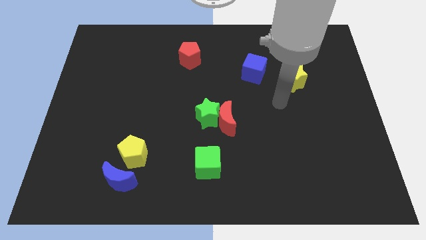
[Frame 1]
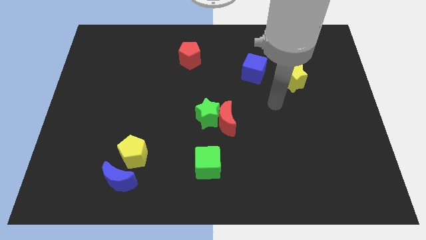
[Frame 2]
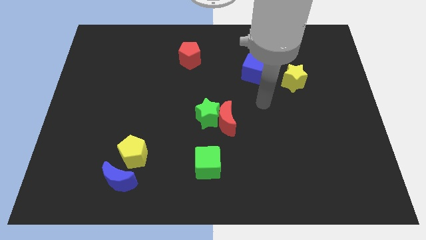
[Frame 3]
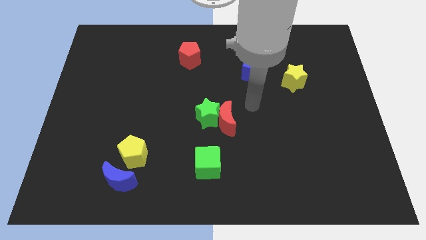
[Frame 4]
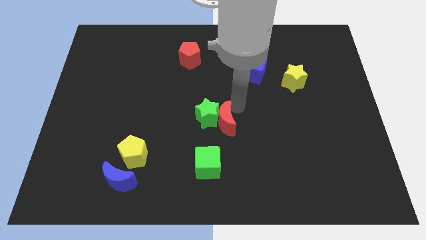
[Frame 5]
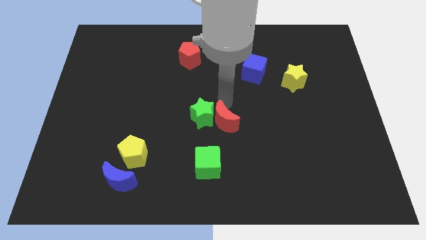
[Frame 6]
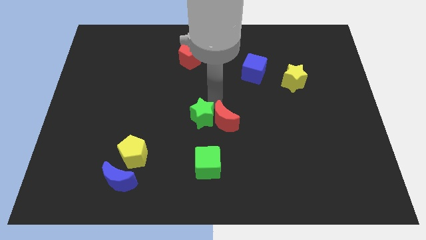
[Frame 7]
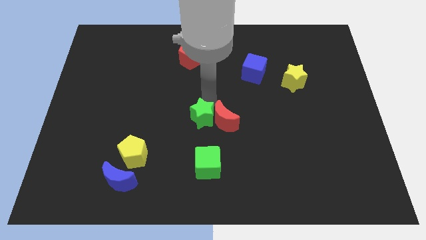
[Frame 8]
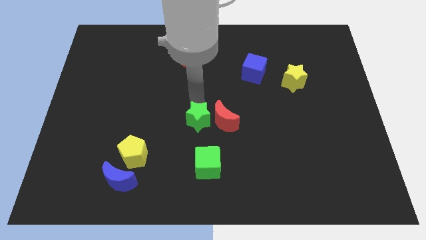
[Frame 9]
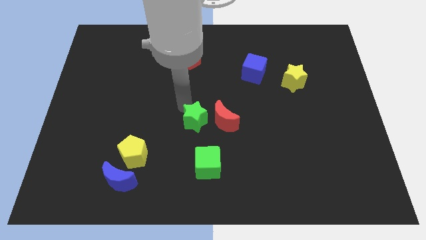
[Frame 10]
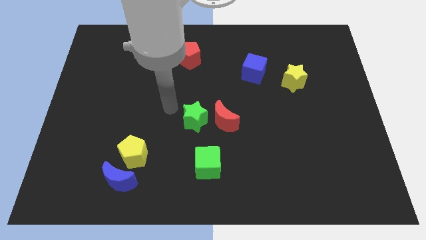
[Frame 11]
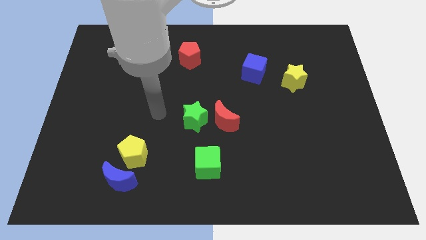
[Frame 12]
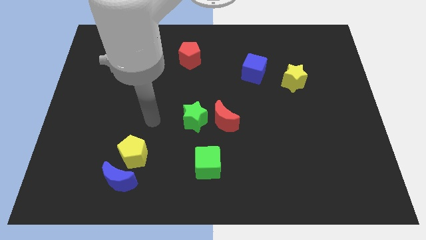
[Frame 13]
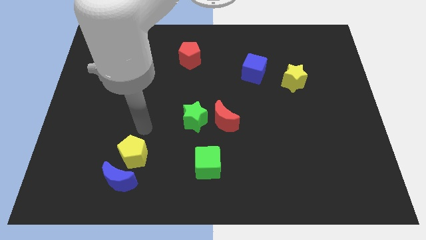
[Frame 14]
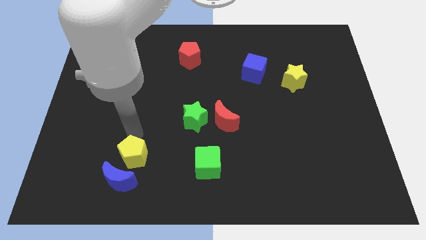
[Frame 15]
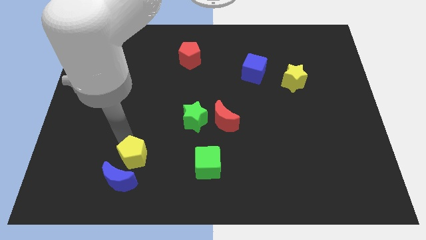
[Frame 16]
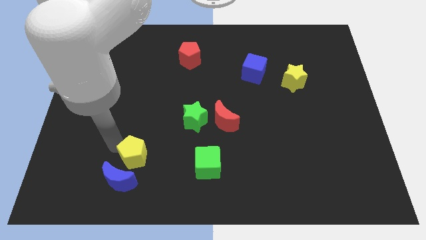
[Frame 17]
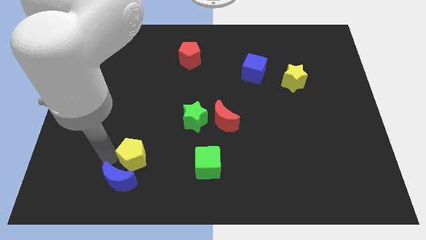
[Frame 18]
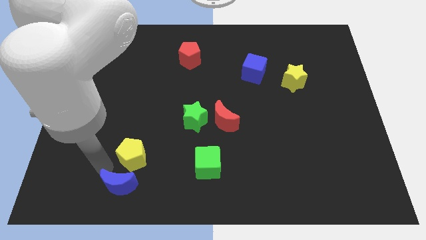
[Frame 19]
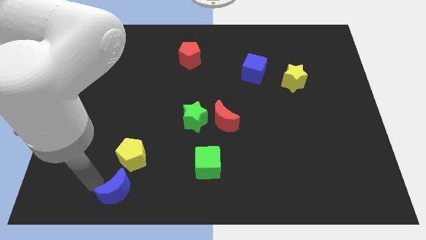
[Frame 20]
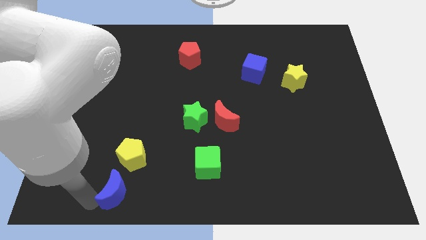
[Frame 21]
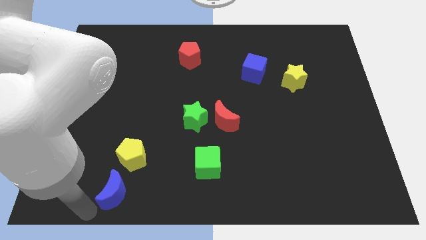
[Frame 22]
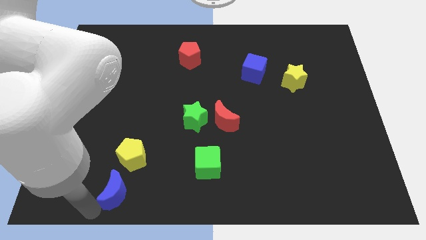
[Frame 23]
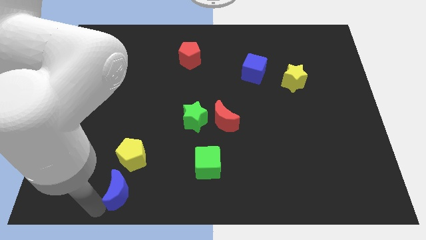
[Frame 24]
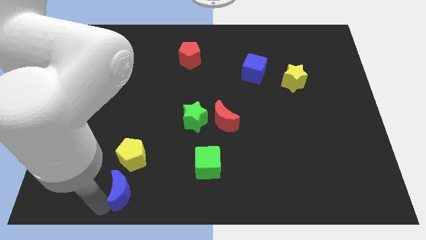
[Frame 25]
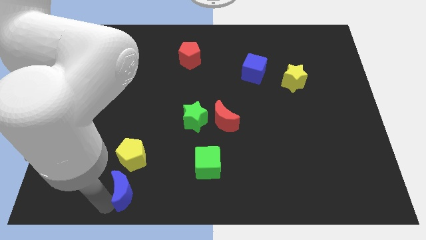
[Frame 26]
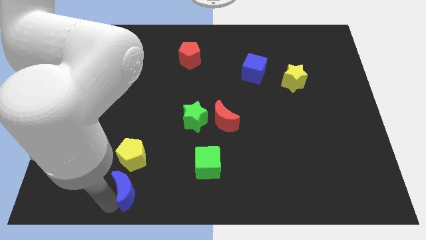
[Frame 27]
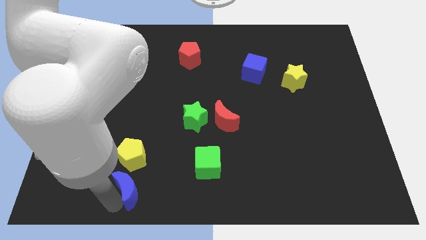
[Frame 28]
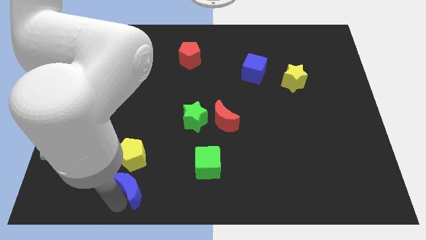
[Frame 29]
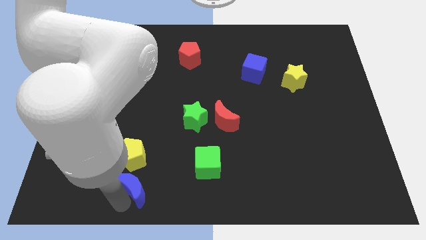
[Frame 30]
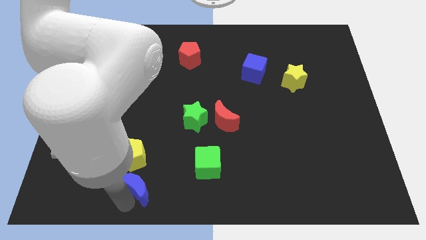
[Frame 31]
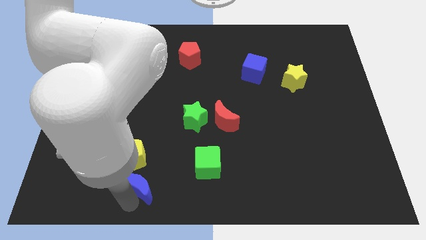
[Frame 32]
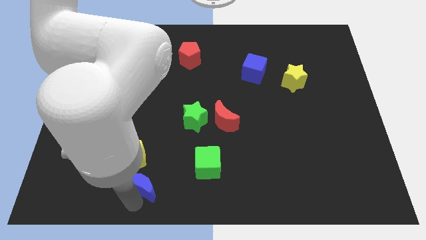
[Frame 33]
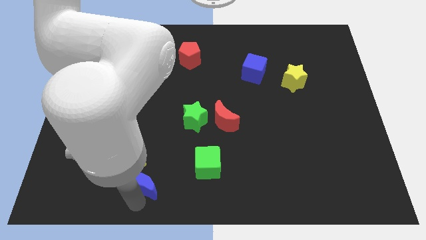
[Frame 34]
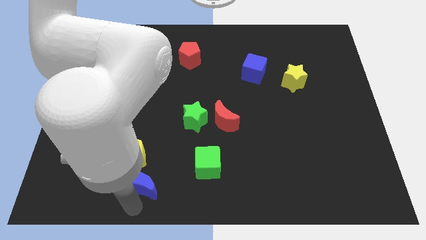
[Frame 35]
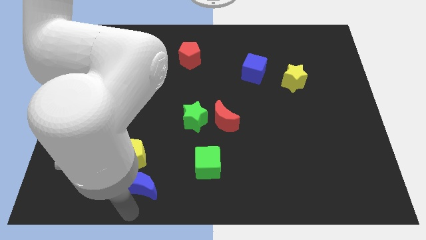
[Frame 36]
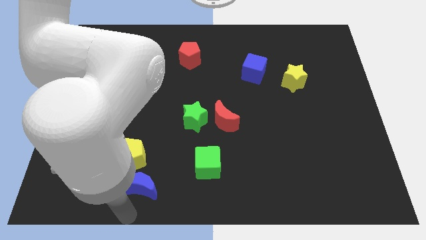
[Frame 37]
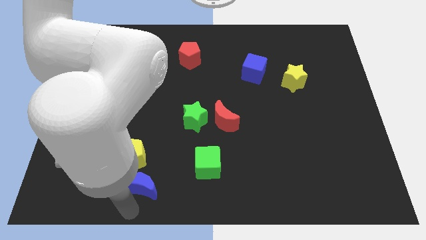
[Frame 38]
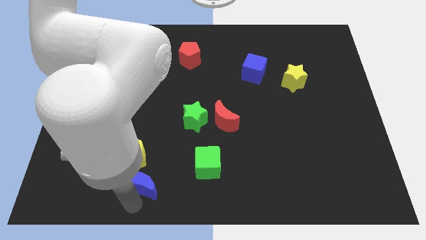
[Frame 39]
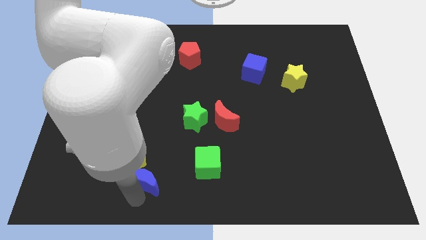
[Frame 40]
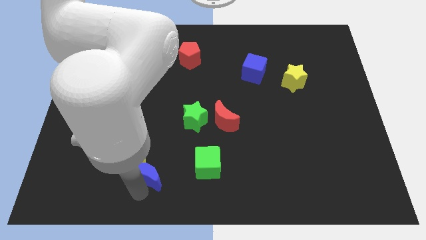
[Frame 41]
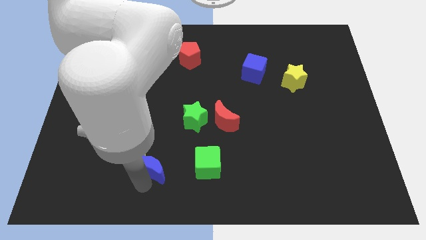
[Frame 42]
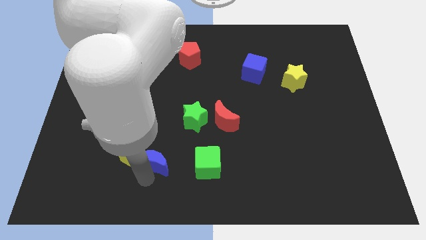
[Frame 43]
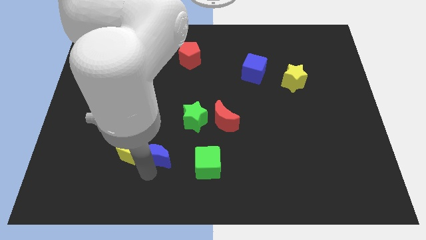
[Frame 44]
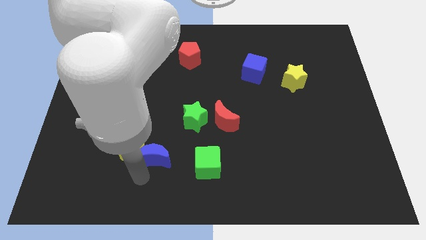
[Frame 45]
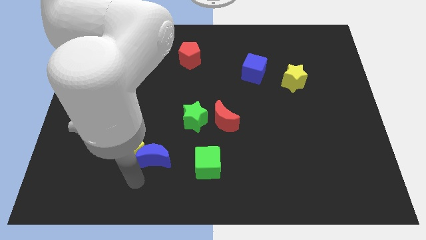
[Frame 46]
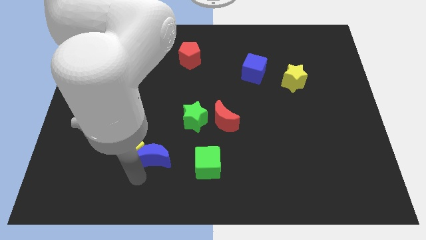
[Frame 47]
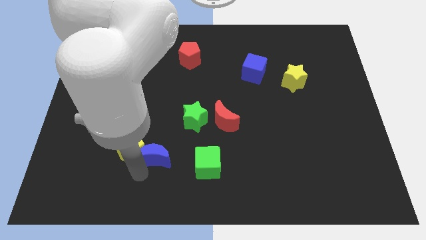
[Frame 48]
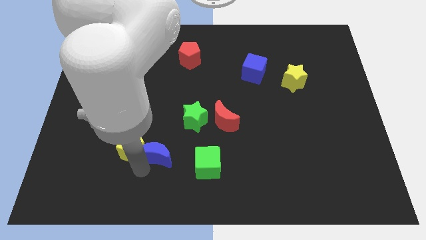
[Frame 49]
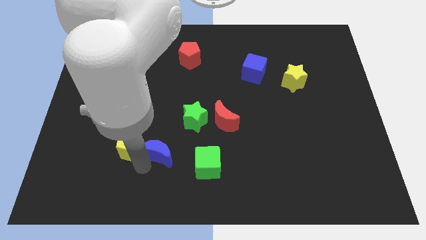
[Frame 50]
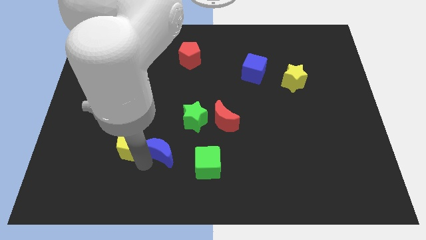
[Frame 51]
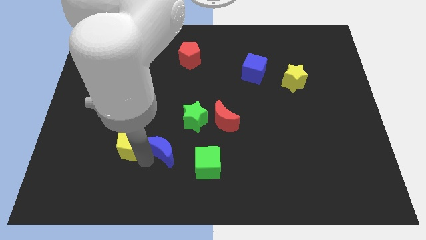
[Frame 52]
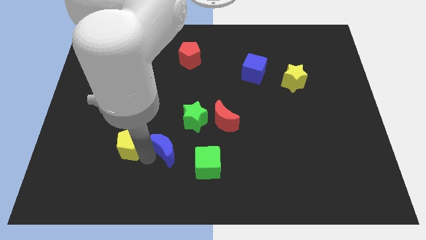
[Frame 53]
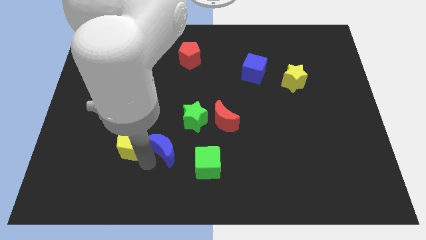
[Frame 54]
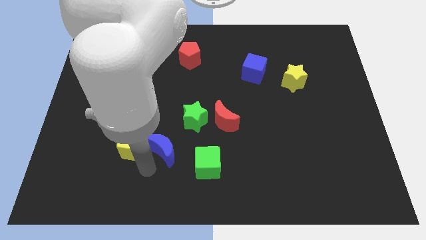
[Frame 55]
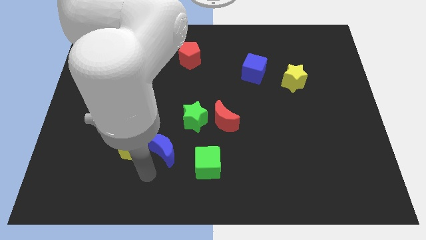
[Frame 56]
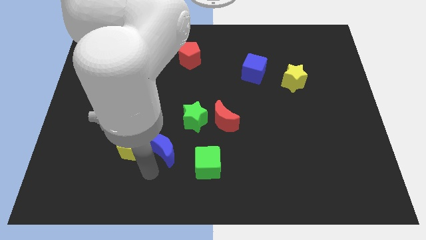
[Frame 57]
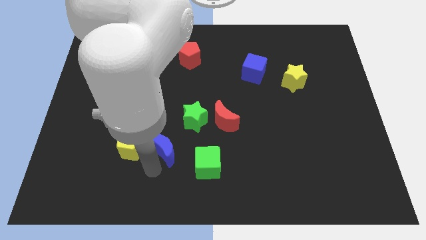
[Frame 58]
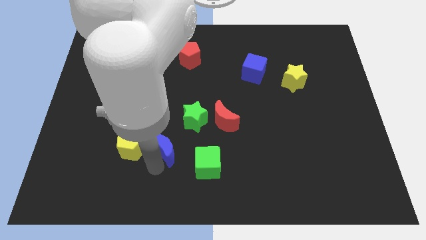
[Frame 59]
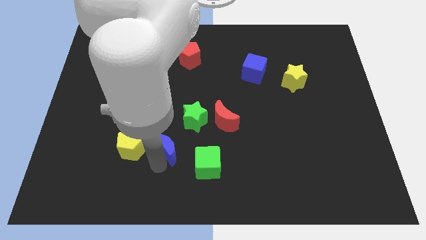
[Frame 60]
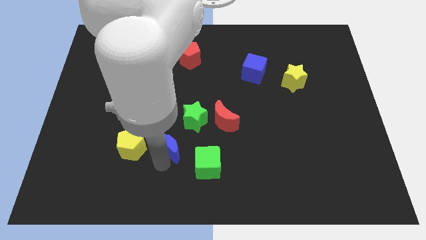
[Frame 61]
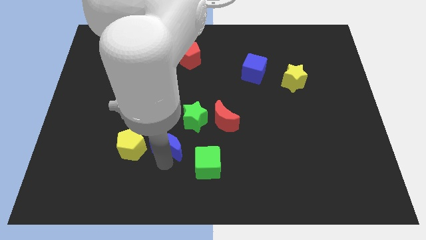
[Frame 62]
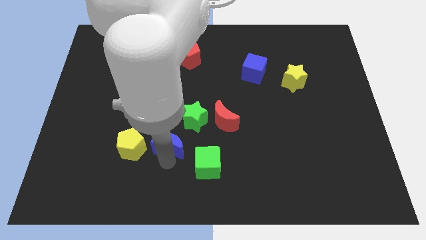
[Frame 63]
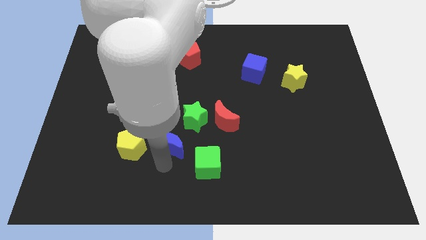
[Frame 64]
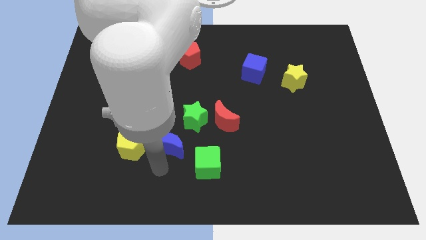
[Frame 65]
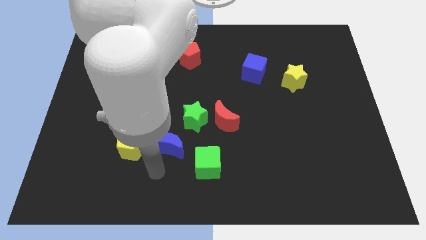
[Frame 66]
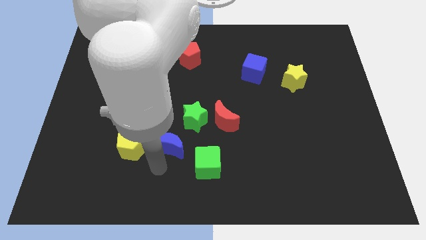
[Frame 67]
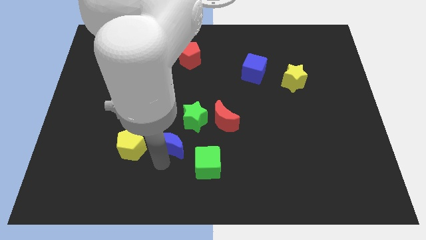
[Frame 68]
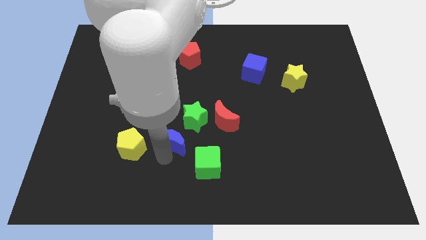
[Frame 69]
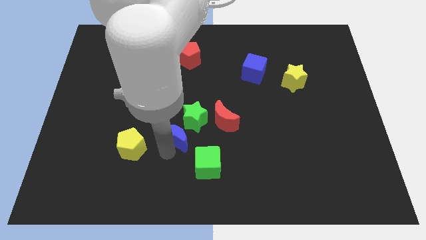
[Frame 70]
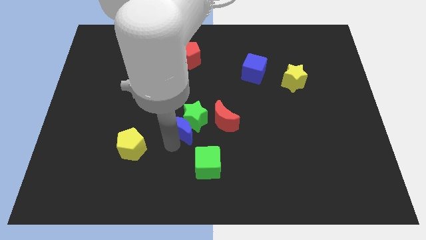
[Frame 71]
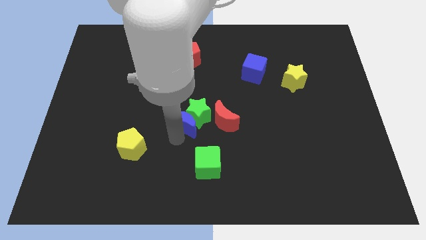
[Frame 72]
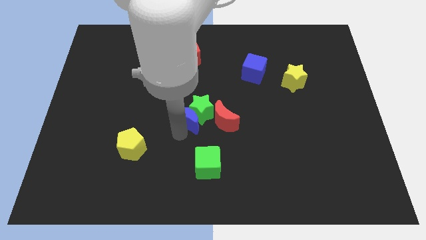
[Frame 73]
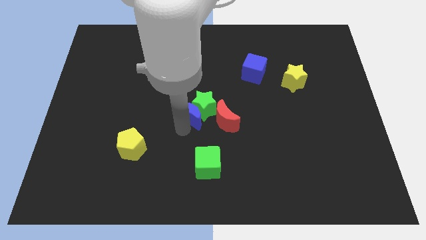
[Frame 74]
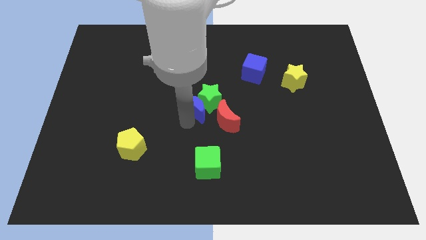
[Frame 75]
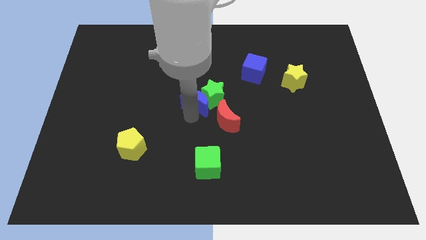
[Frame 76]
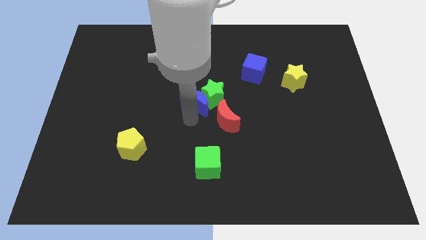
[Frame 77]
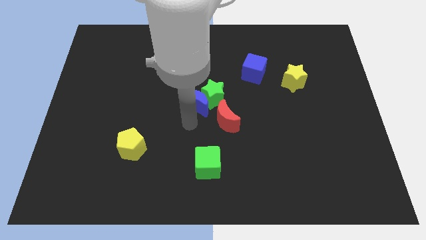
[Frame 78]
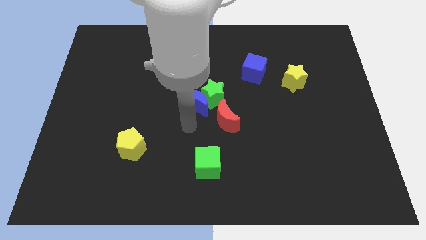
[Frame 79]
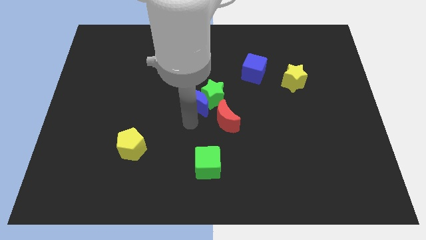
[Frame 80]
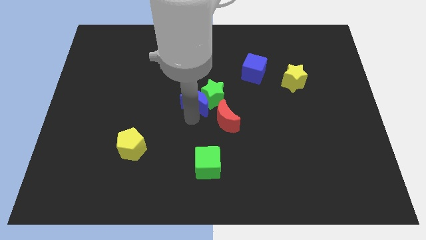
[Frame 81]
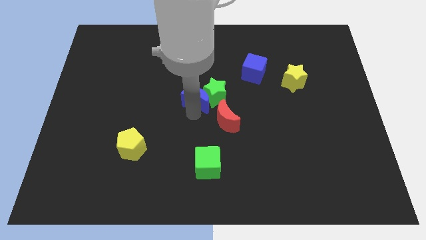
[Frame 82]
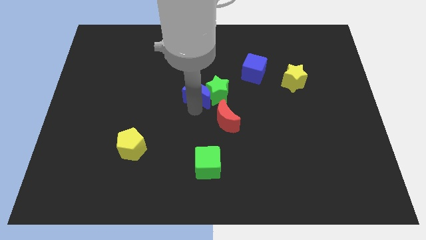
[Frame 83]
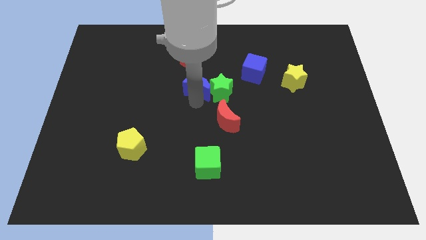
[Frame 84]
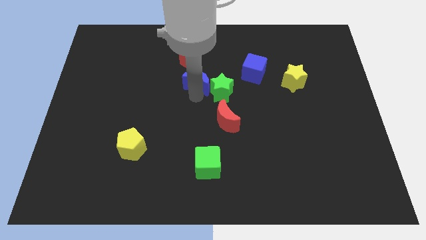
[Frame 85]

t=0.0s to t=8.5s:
move the blue moon left of the blue cube
